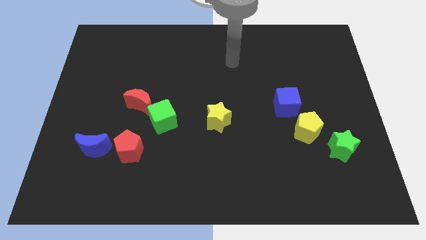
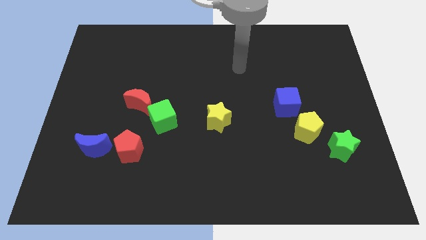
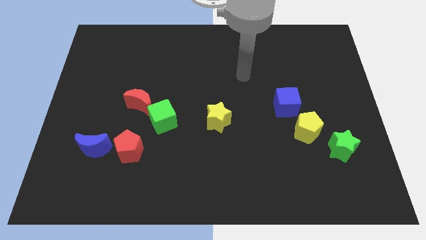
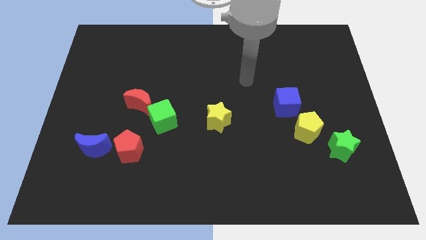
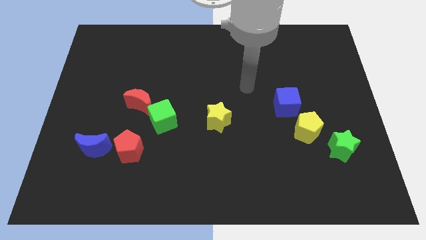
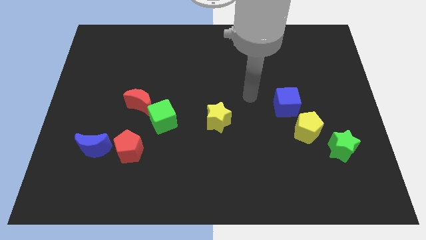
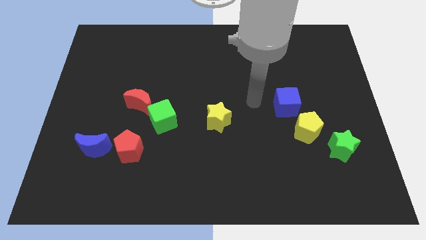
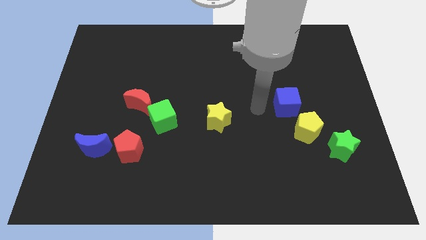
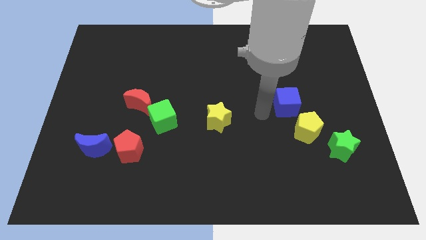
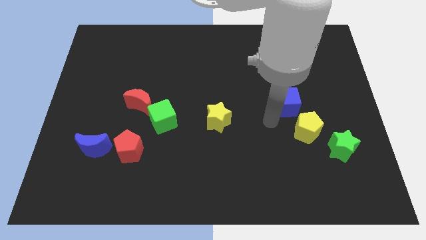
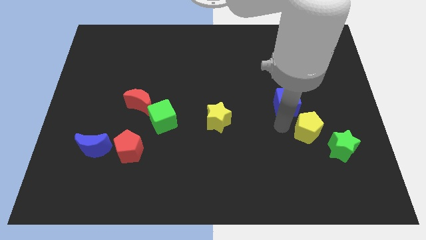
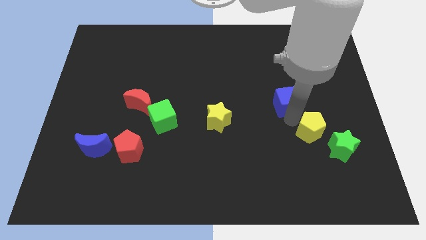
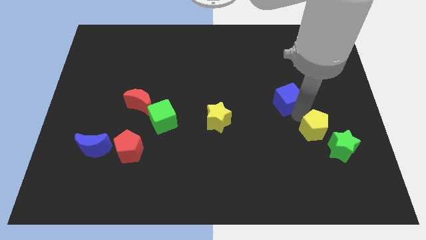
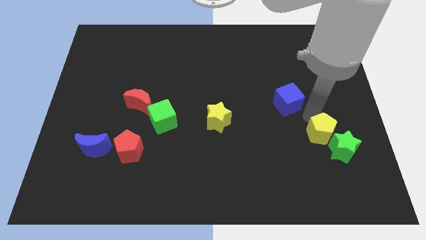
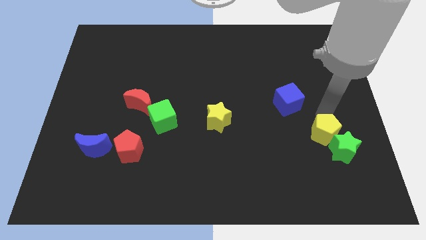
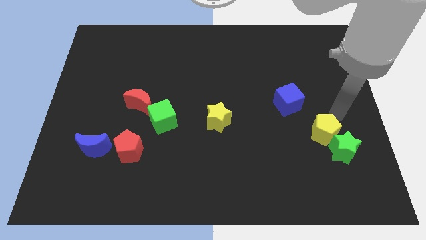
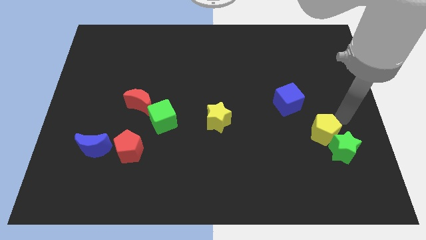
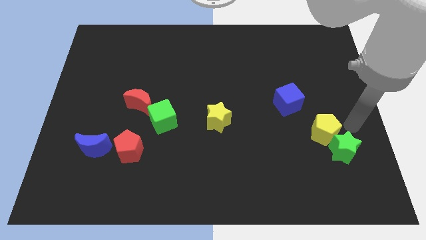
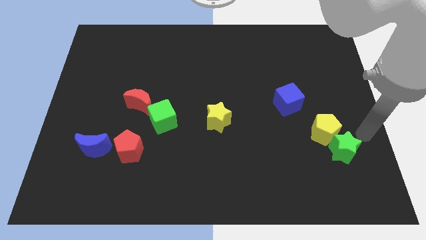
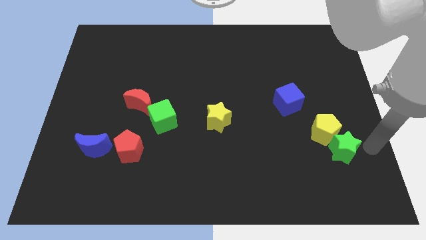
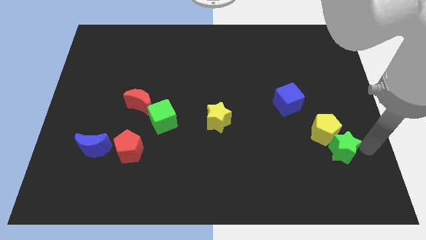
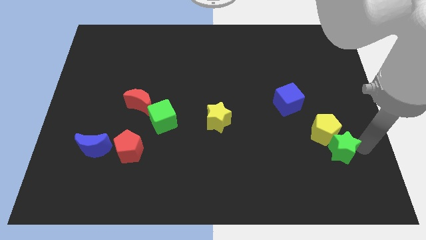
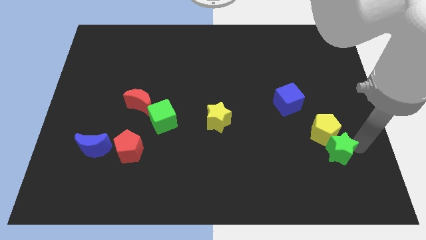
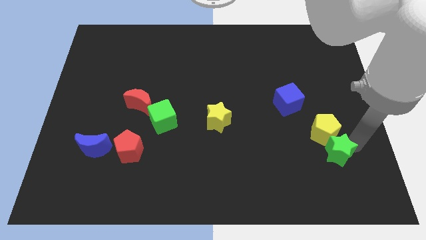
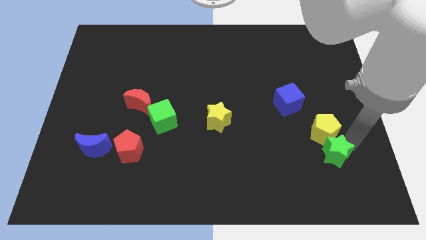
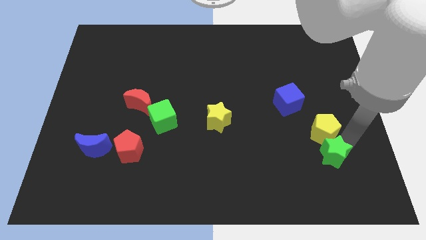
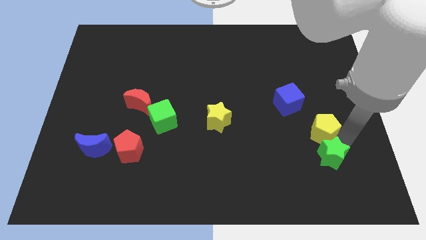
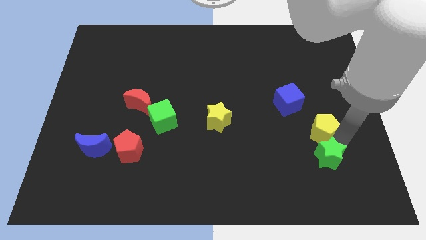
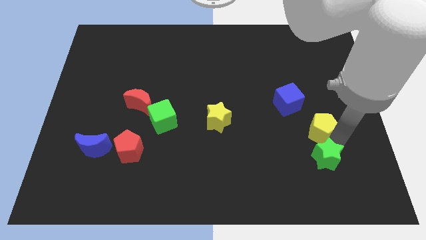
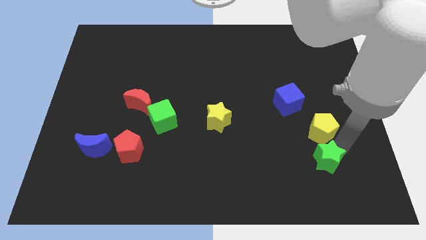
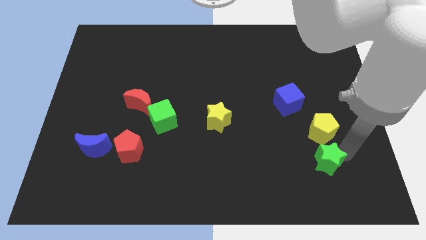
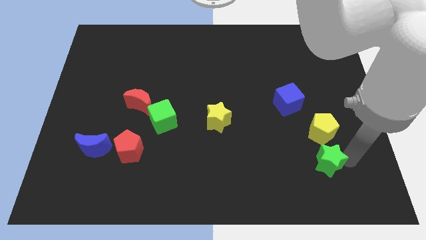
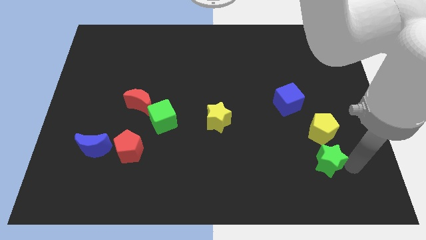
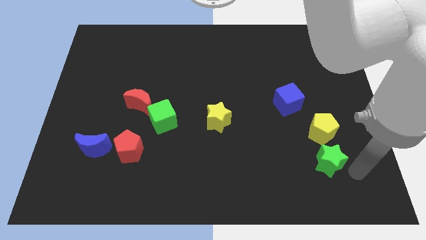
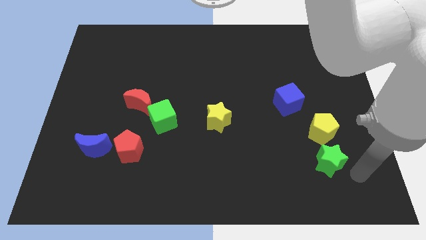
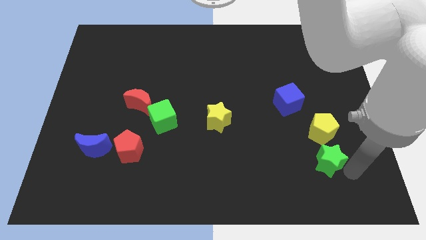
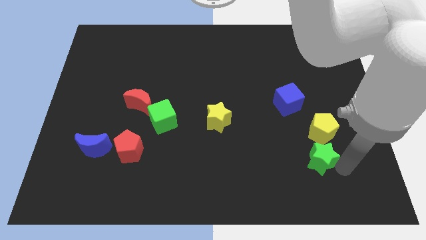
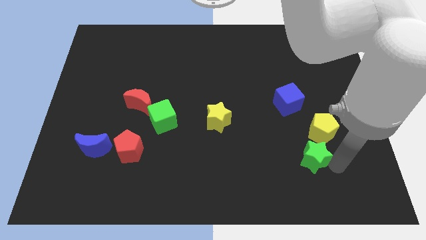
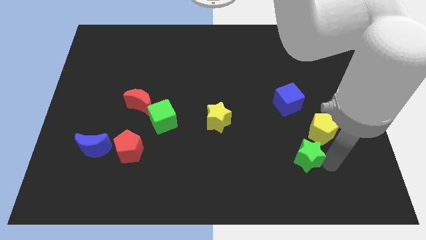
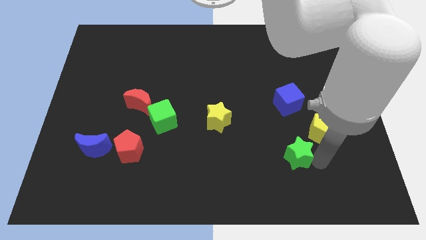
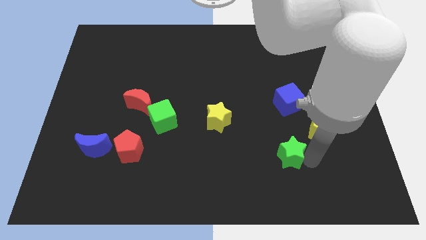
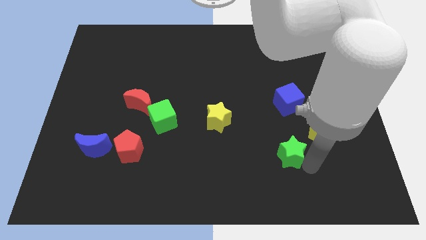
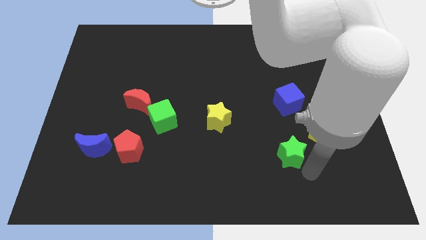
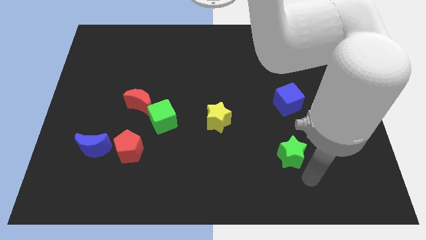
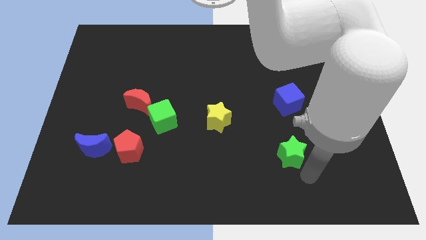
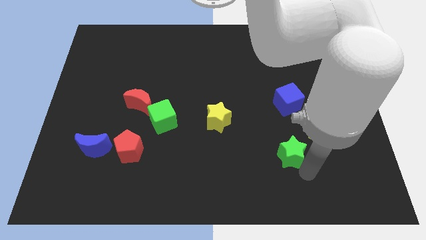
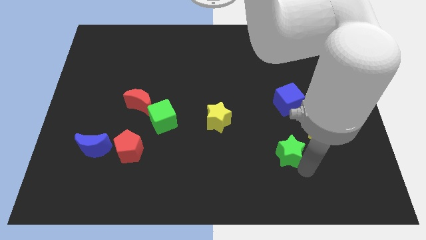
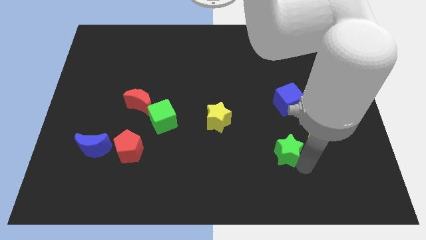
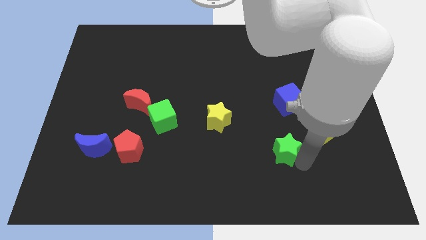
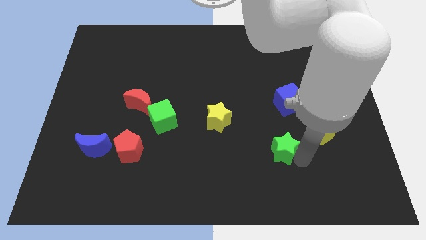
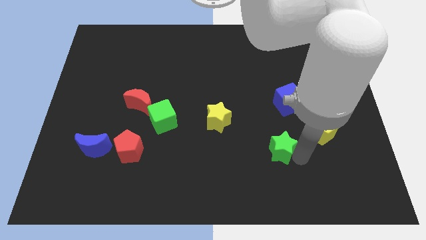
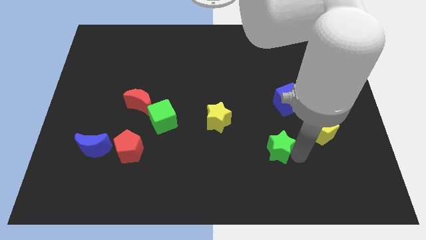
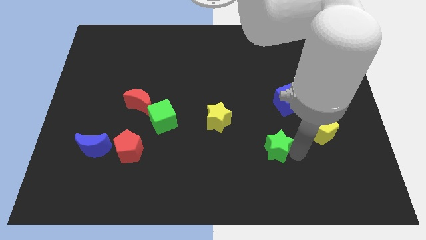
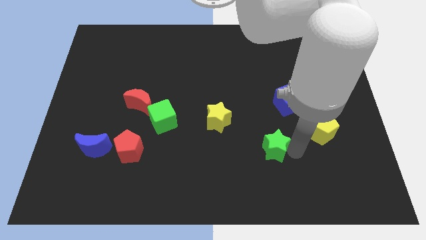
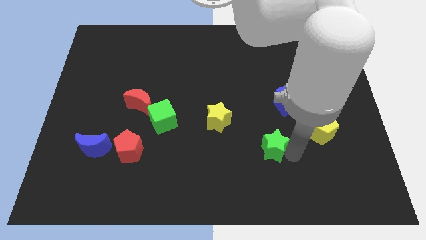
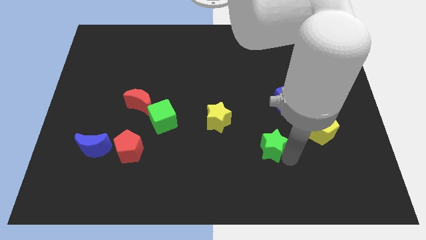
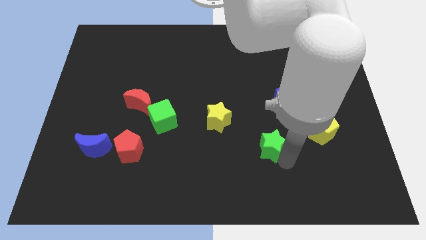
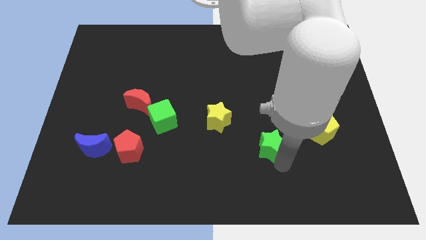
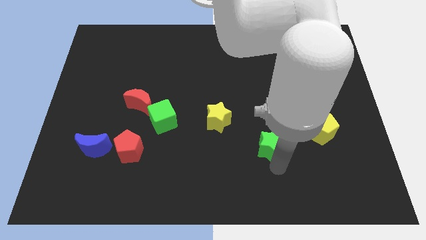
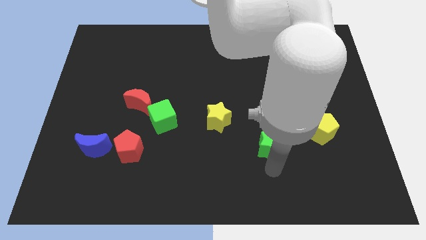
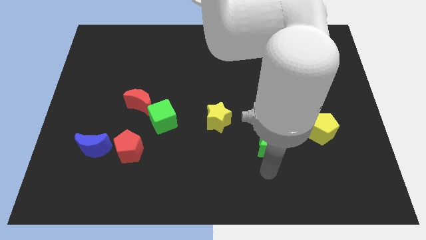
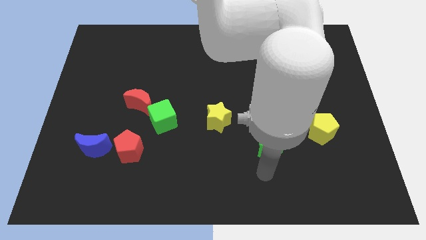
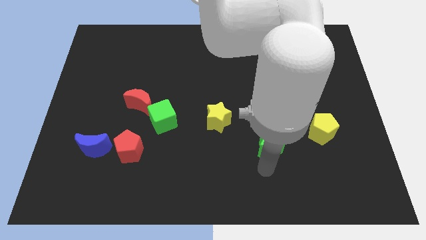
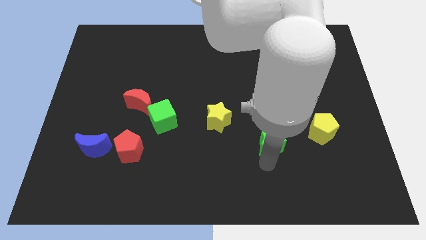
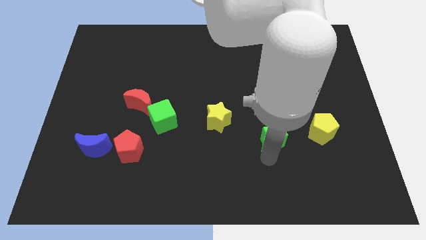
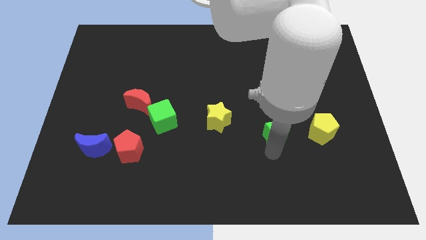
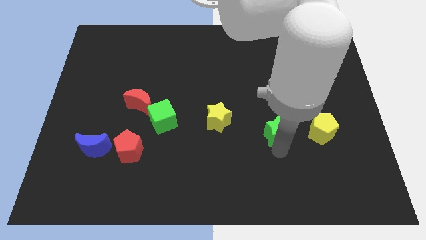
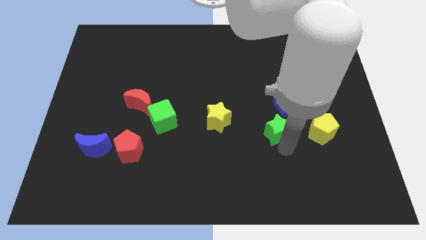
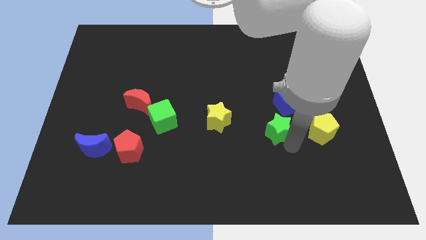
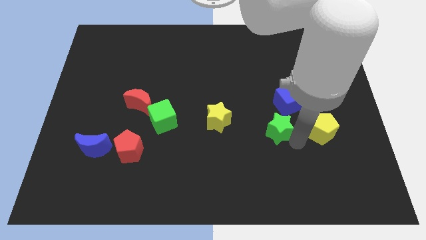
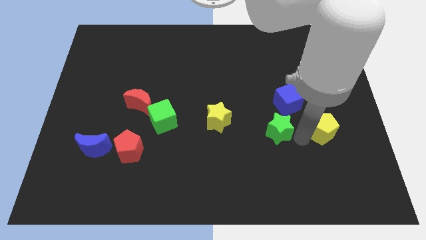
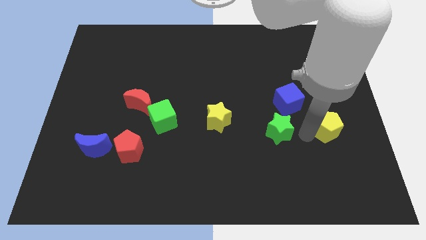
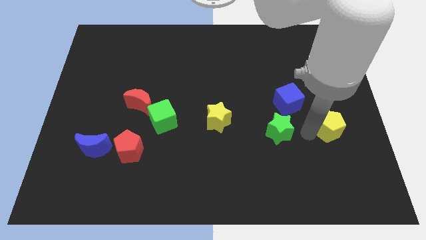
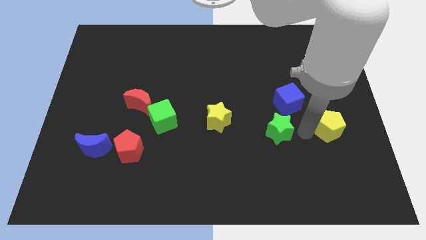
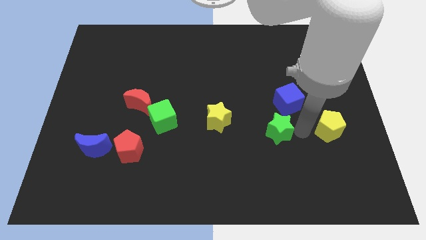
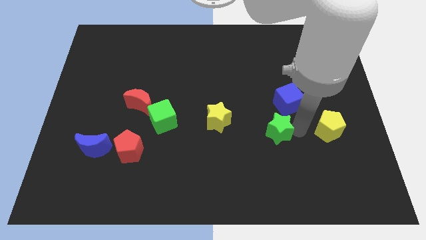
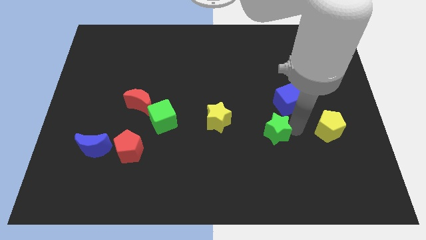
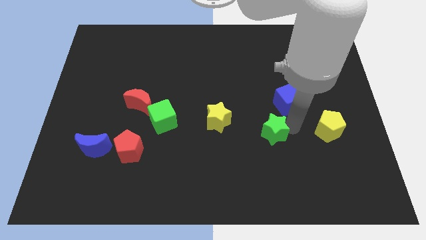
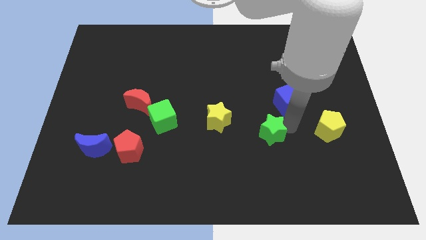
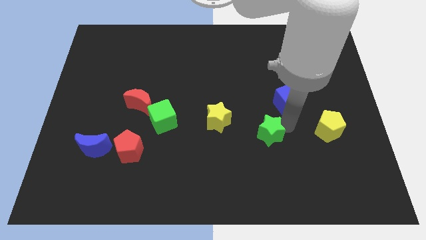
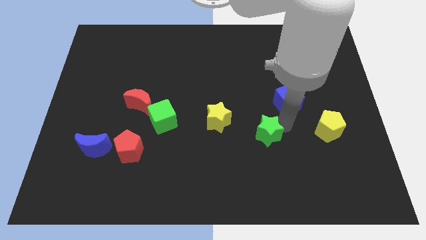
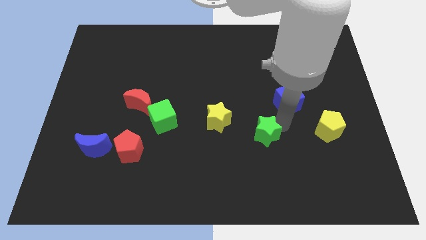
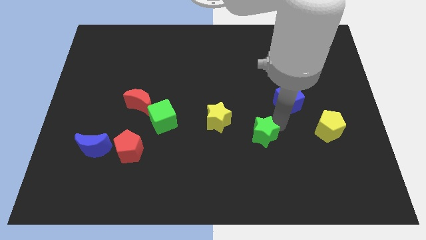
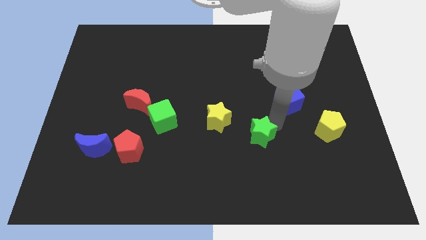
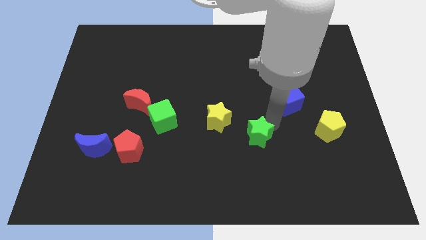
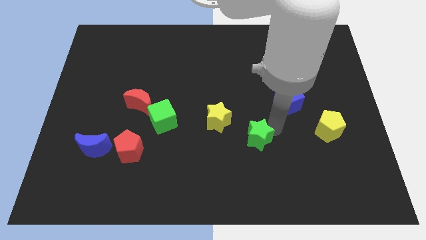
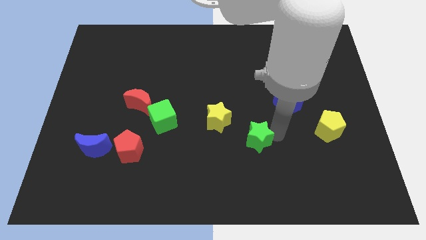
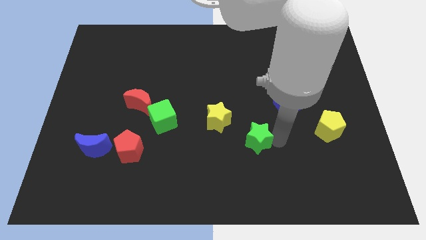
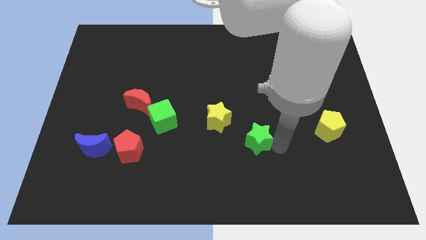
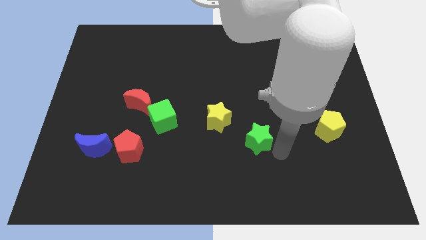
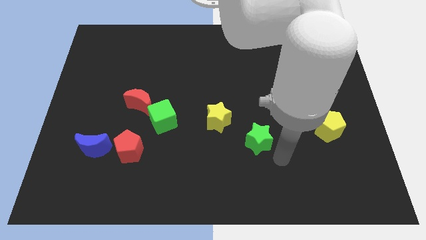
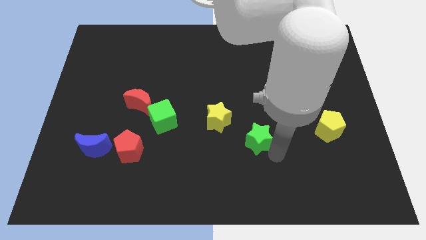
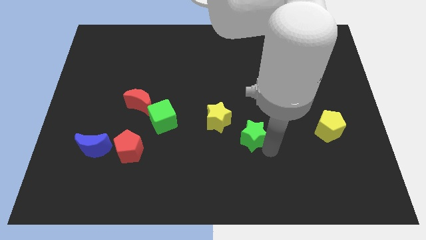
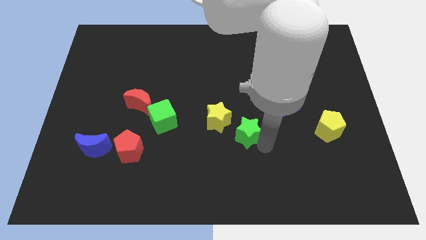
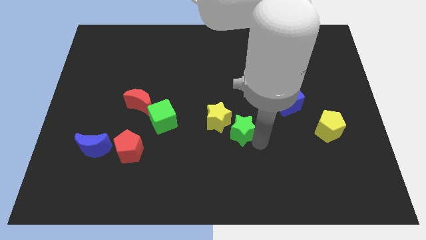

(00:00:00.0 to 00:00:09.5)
push the green star to the yellow star
